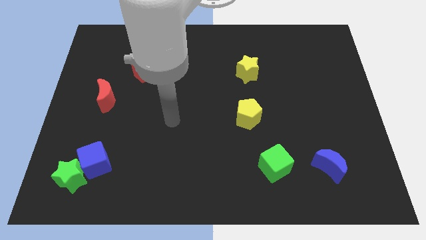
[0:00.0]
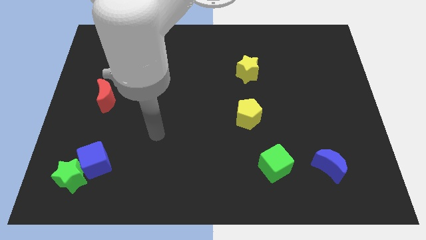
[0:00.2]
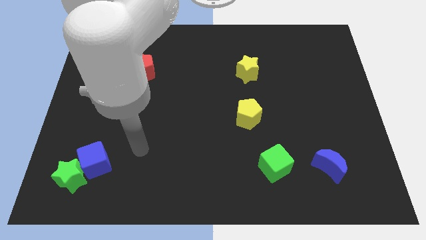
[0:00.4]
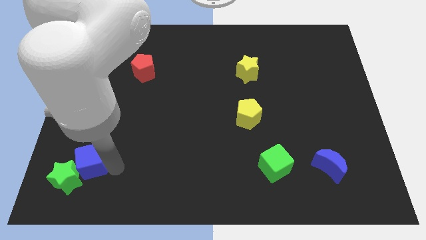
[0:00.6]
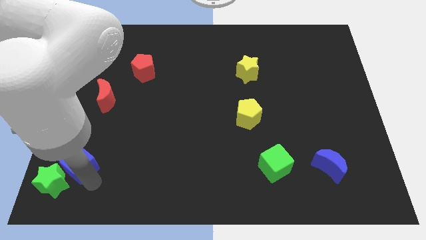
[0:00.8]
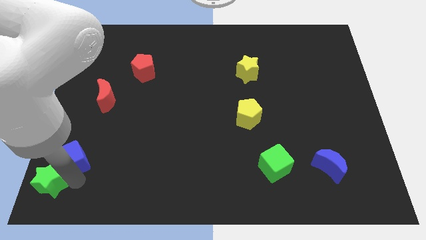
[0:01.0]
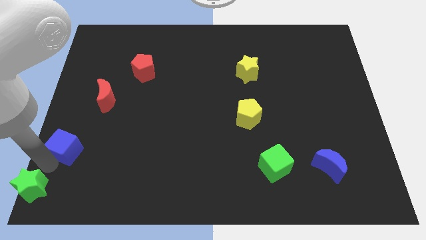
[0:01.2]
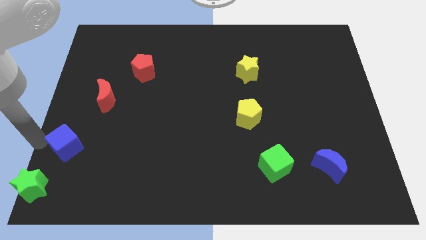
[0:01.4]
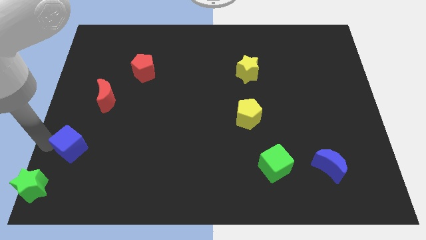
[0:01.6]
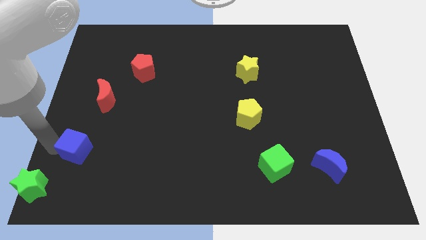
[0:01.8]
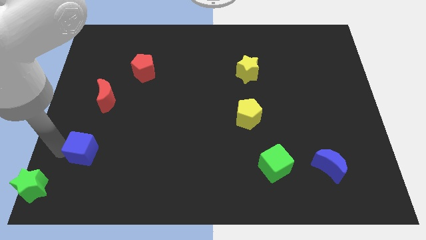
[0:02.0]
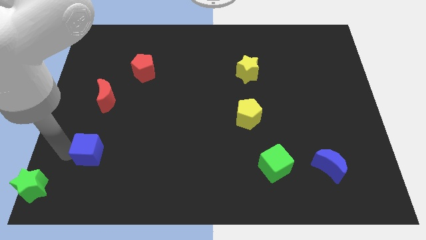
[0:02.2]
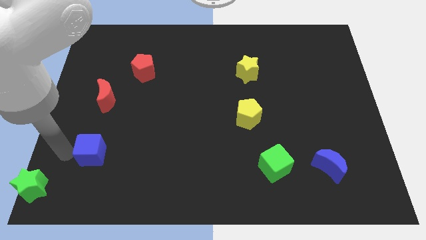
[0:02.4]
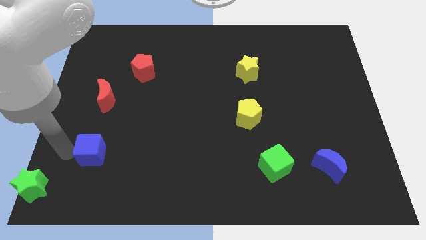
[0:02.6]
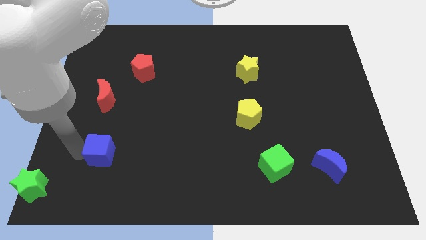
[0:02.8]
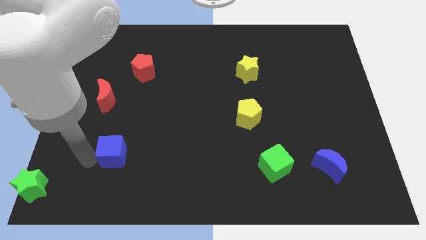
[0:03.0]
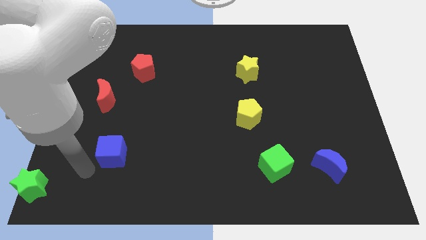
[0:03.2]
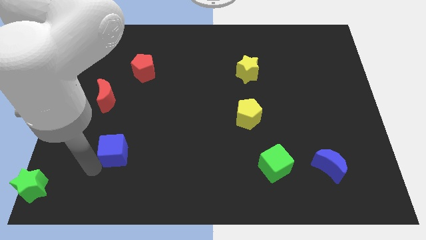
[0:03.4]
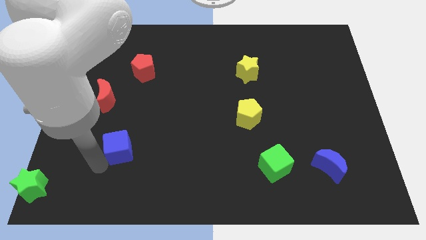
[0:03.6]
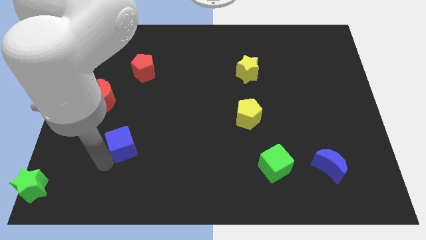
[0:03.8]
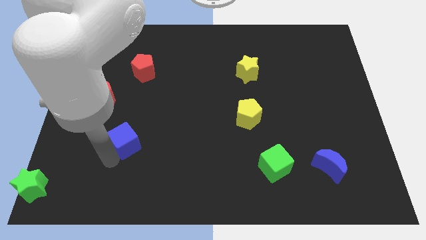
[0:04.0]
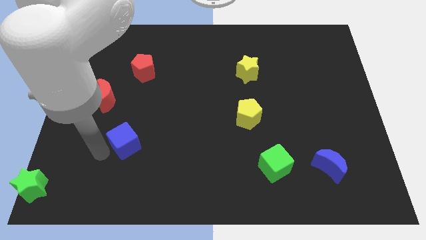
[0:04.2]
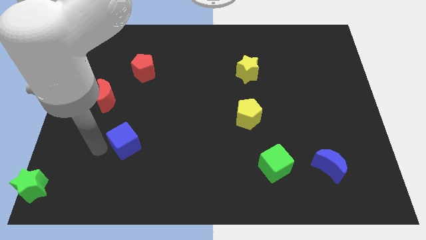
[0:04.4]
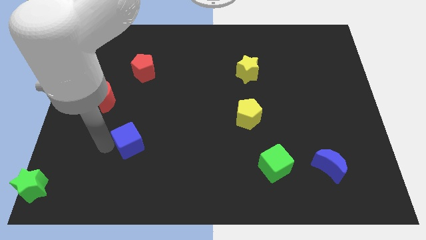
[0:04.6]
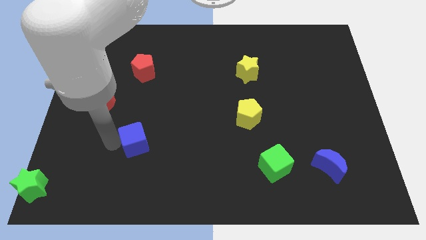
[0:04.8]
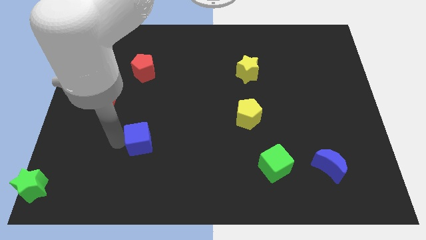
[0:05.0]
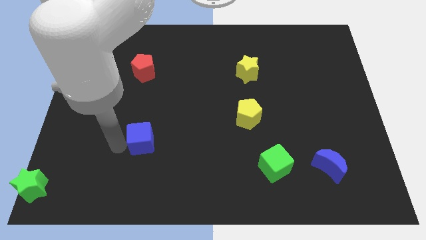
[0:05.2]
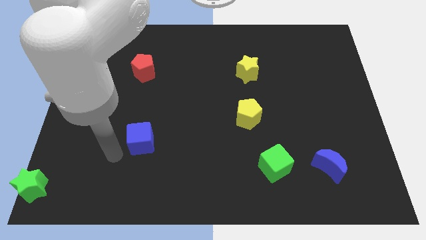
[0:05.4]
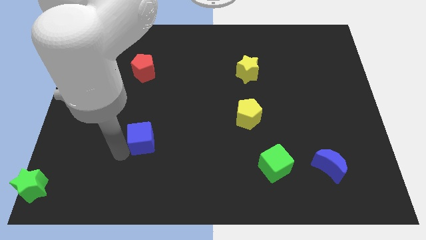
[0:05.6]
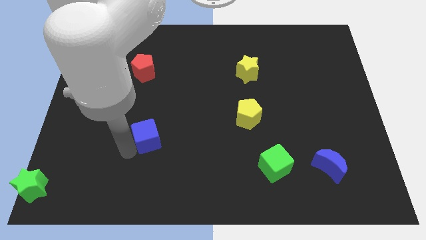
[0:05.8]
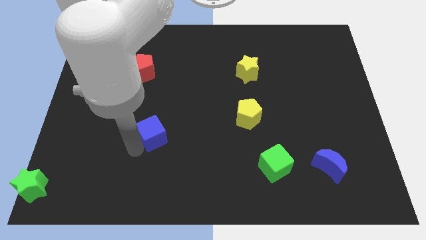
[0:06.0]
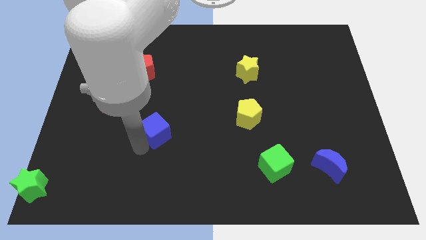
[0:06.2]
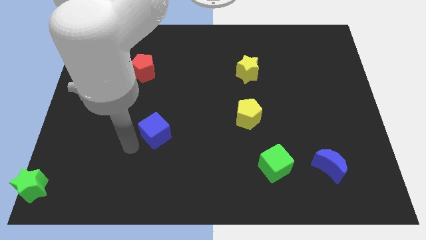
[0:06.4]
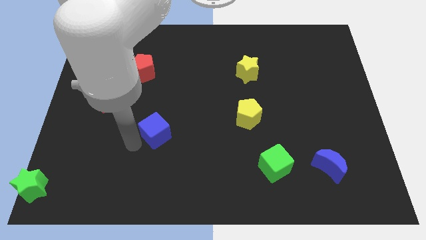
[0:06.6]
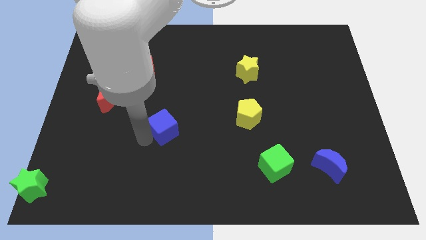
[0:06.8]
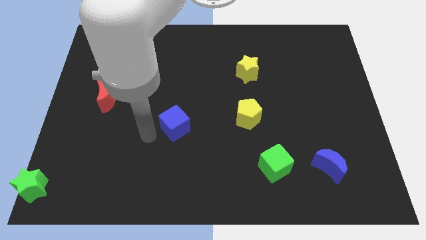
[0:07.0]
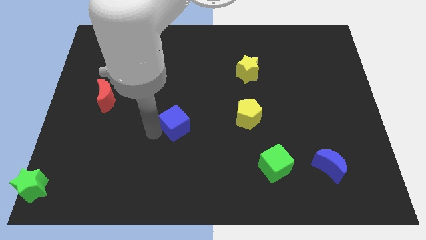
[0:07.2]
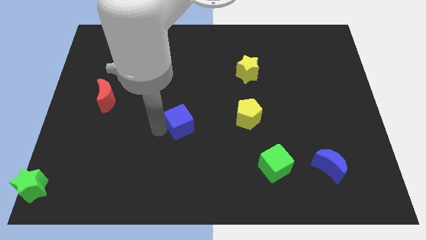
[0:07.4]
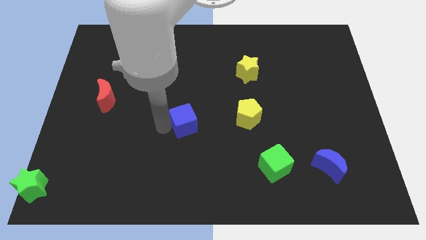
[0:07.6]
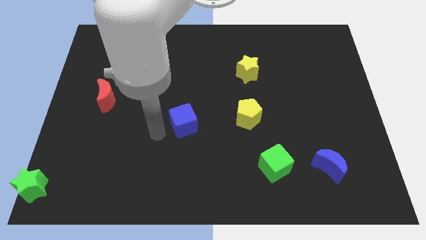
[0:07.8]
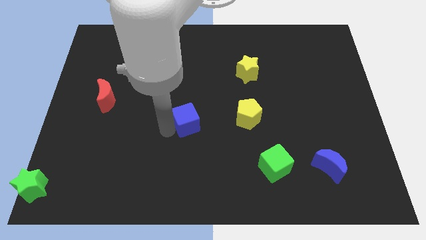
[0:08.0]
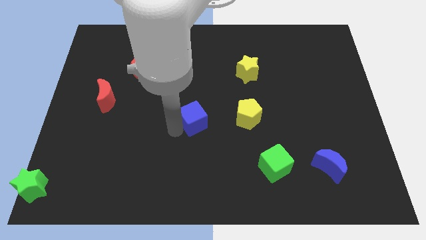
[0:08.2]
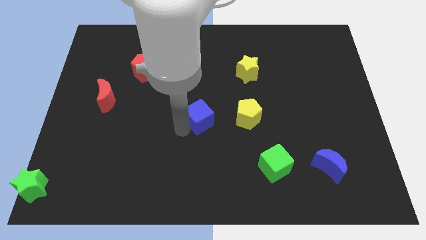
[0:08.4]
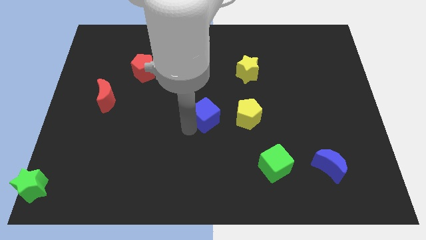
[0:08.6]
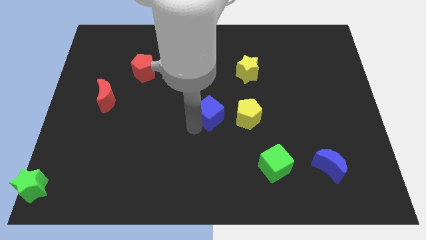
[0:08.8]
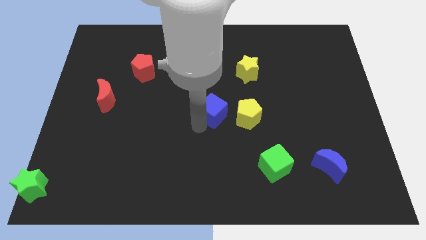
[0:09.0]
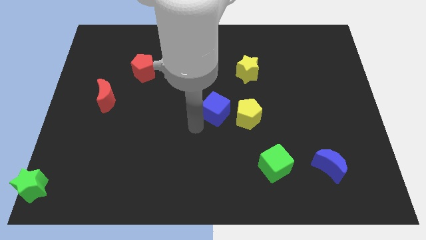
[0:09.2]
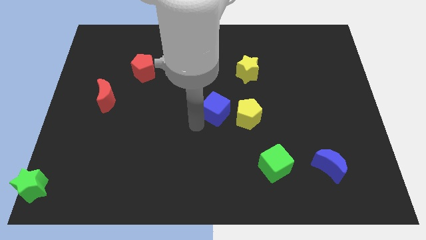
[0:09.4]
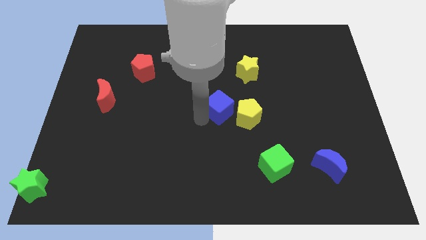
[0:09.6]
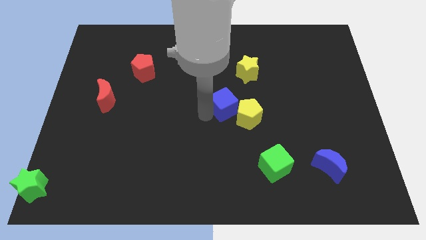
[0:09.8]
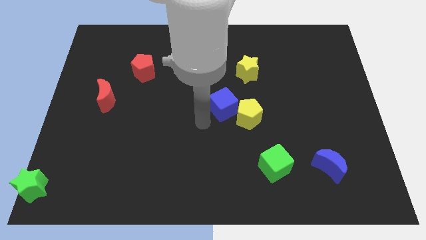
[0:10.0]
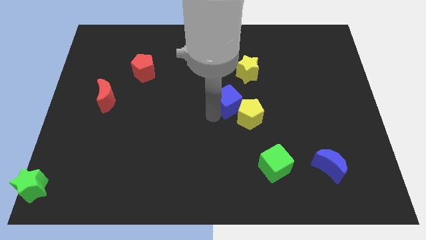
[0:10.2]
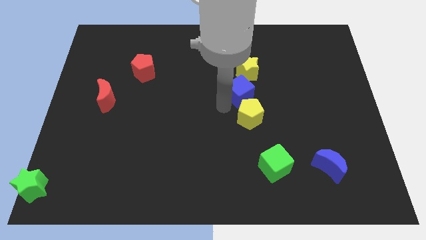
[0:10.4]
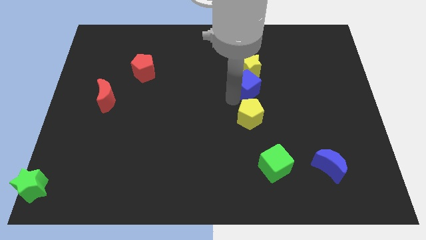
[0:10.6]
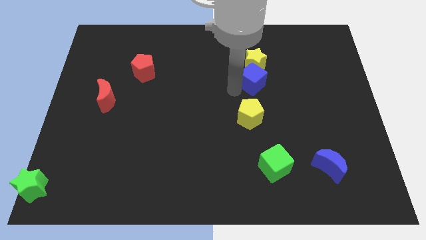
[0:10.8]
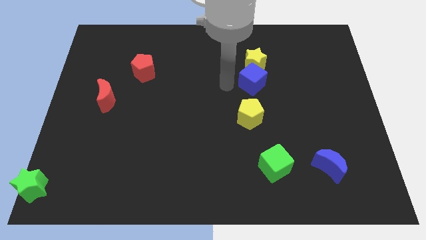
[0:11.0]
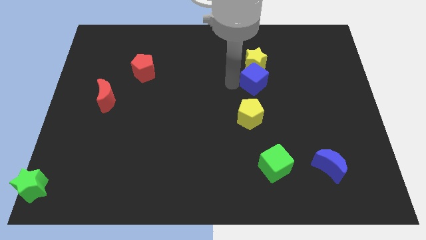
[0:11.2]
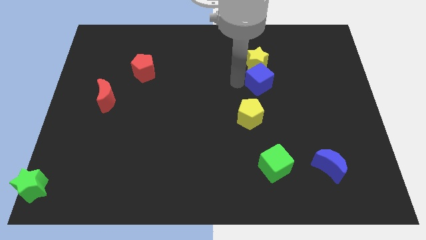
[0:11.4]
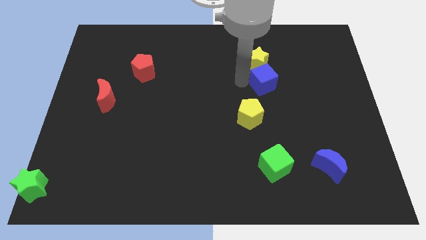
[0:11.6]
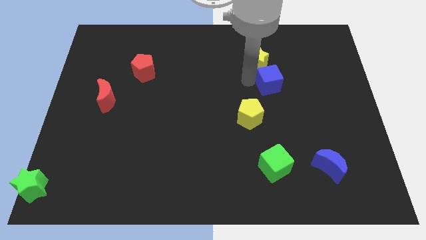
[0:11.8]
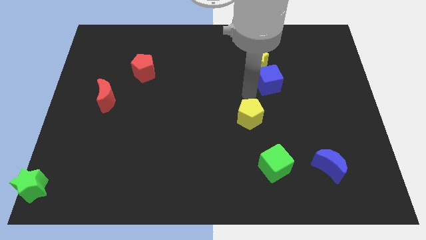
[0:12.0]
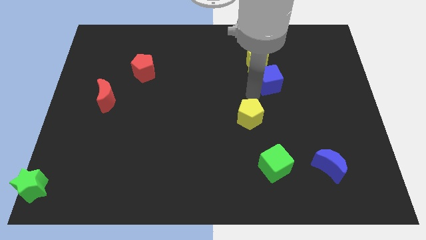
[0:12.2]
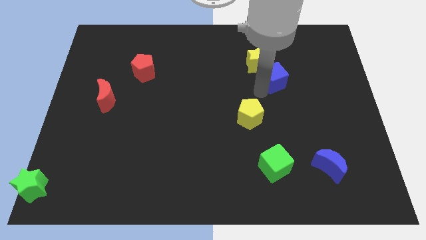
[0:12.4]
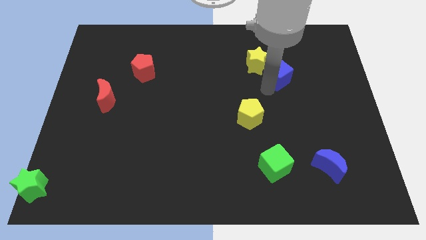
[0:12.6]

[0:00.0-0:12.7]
move the blue cube to the right side of the yellow star
